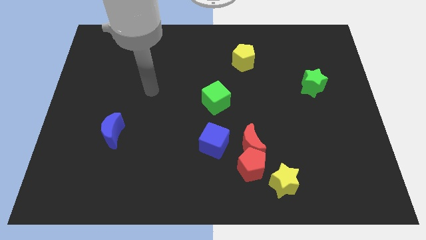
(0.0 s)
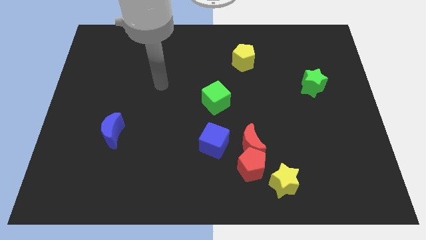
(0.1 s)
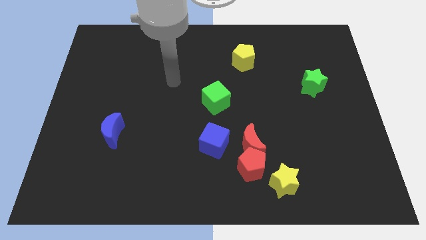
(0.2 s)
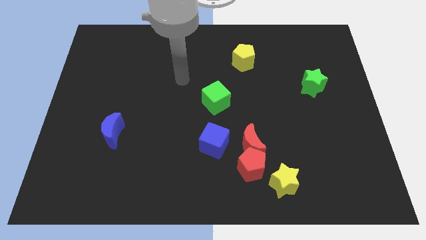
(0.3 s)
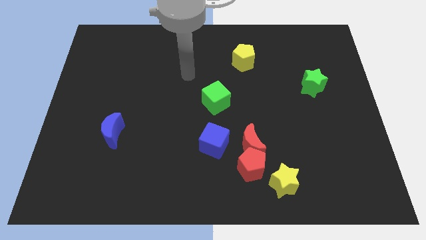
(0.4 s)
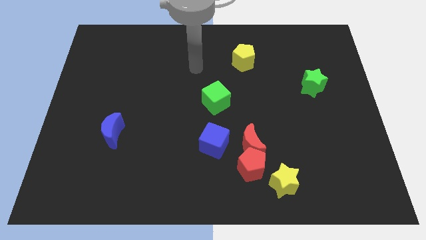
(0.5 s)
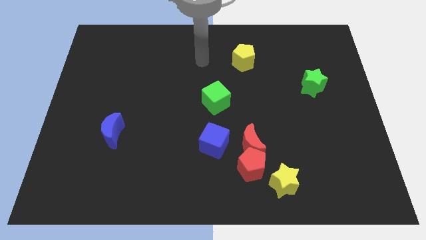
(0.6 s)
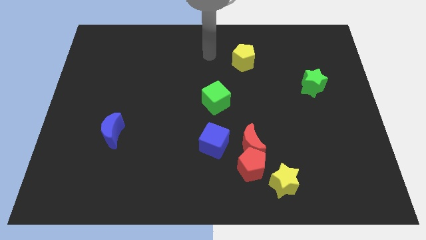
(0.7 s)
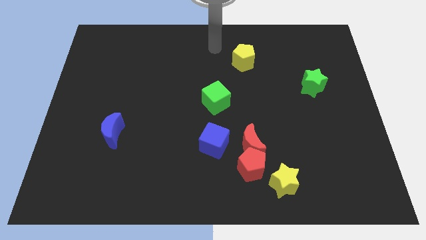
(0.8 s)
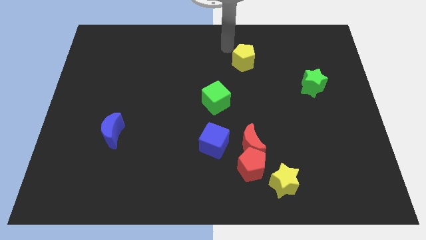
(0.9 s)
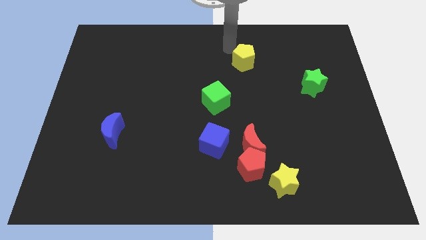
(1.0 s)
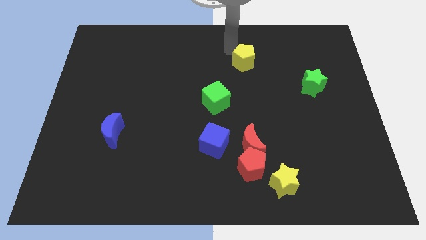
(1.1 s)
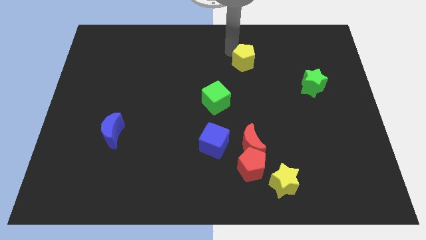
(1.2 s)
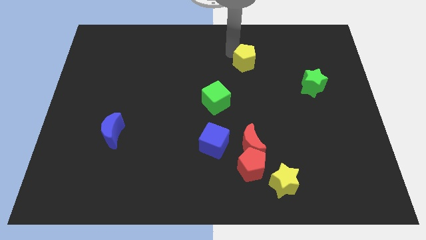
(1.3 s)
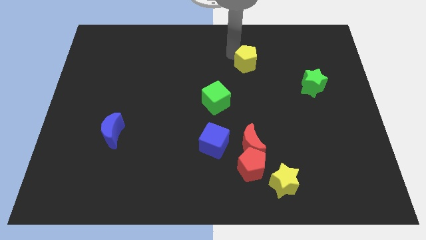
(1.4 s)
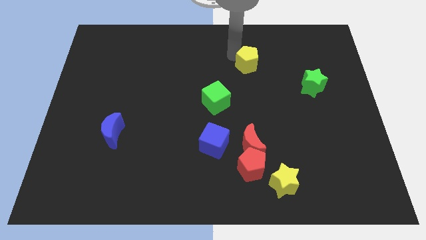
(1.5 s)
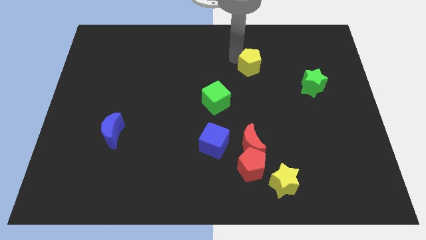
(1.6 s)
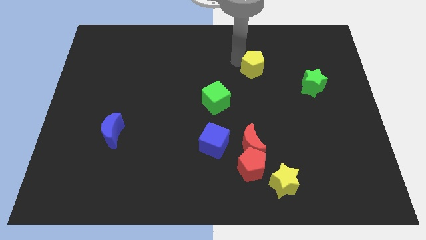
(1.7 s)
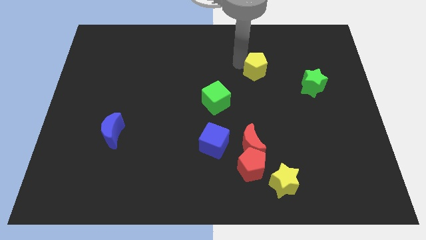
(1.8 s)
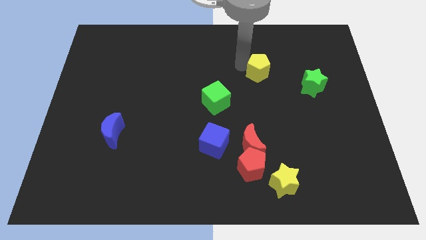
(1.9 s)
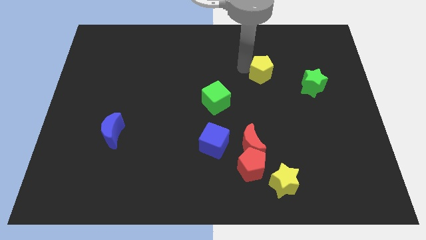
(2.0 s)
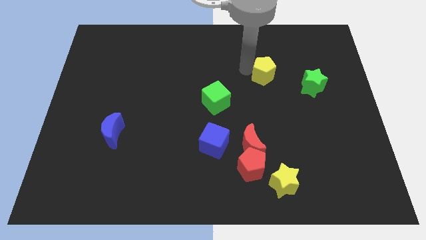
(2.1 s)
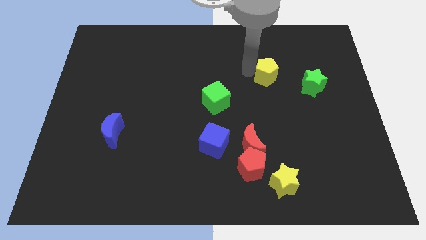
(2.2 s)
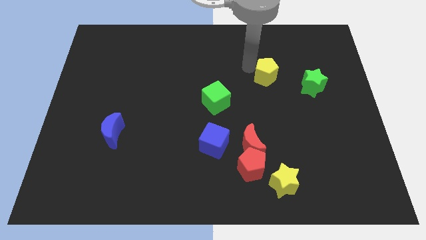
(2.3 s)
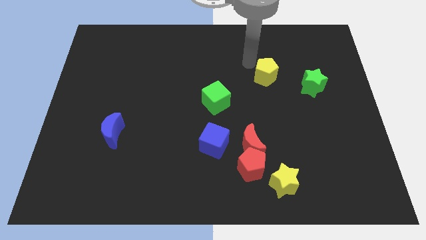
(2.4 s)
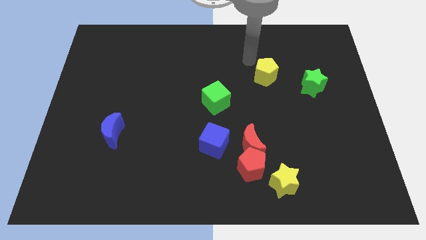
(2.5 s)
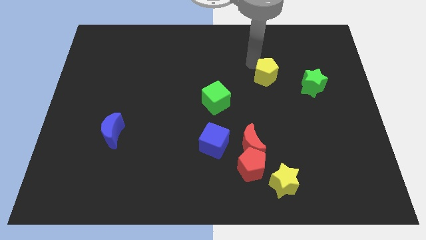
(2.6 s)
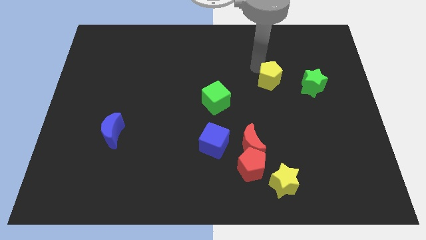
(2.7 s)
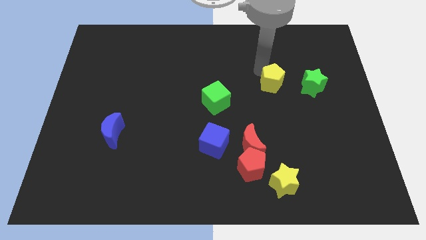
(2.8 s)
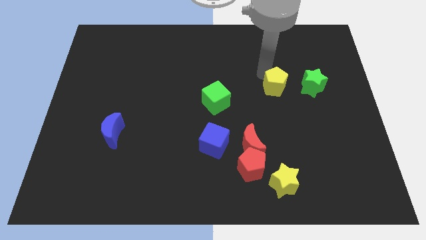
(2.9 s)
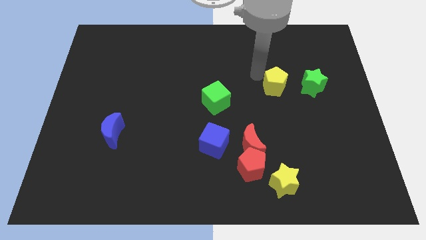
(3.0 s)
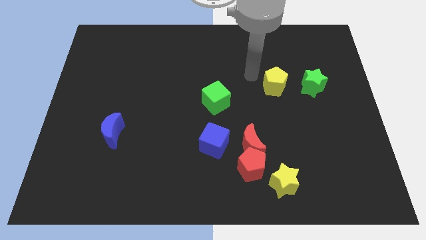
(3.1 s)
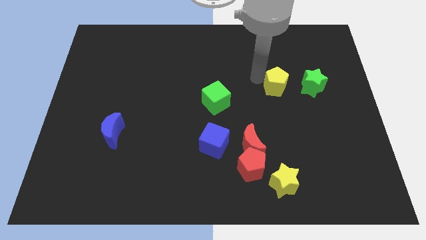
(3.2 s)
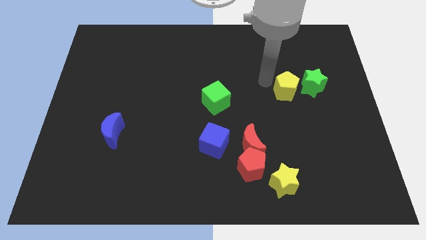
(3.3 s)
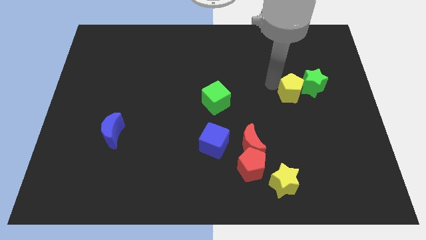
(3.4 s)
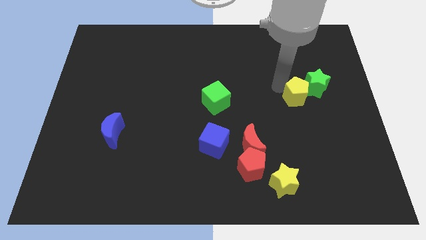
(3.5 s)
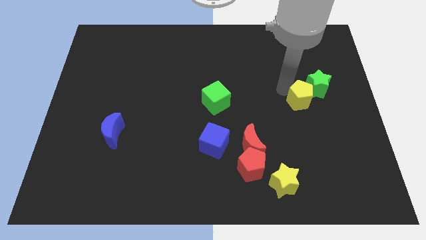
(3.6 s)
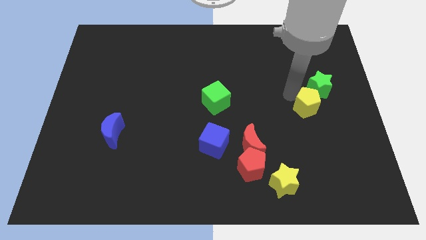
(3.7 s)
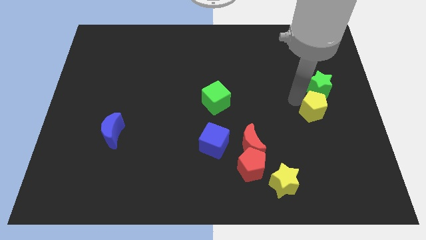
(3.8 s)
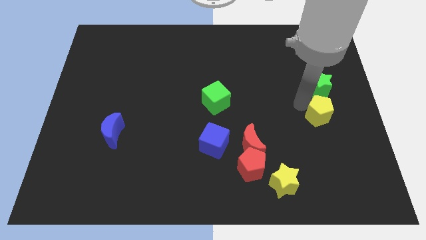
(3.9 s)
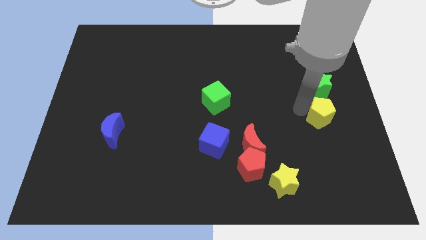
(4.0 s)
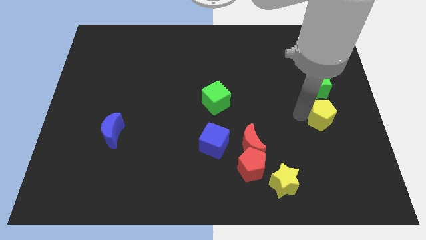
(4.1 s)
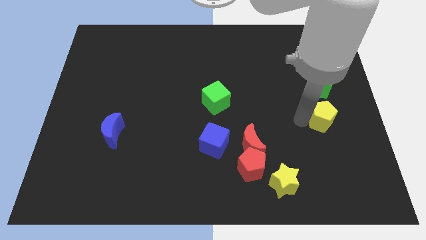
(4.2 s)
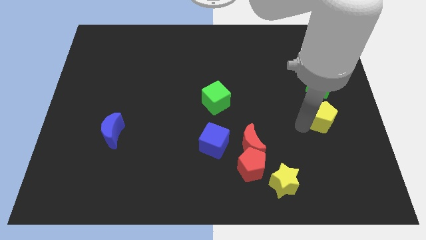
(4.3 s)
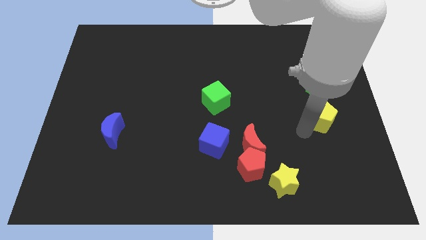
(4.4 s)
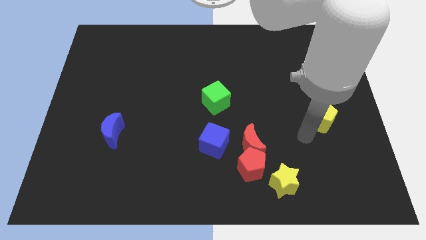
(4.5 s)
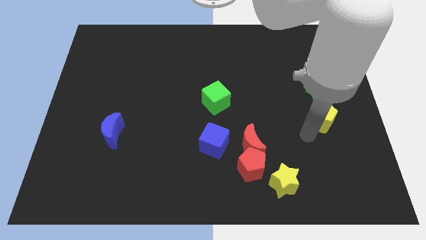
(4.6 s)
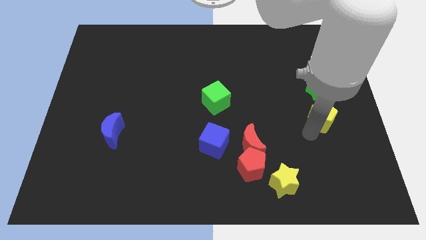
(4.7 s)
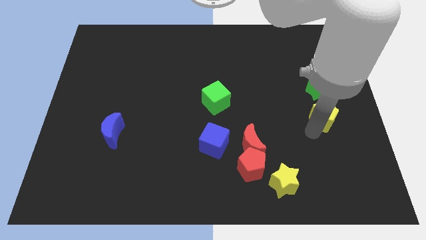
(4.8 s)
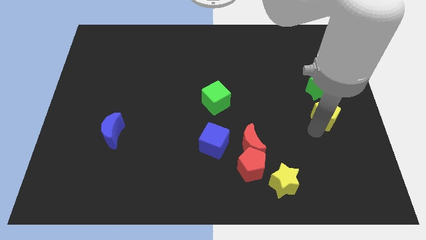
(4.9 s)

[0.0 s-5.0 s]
put the yellow pentagon to the center right

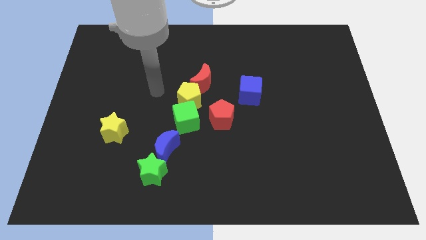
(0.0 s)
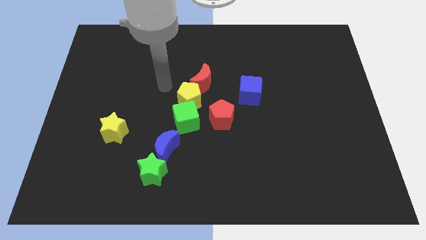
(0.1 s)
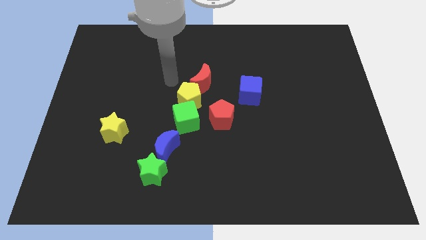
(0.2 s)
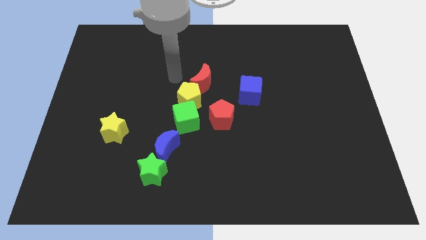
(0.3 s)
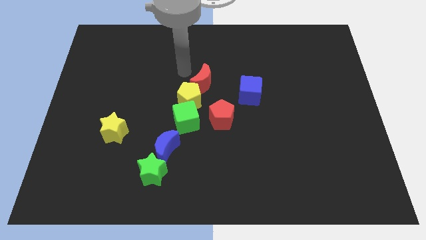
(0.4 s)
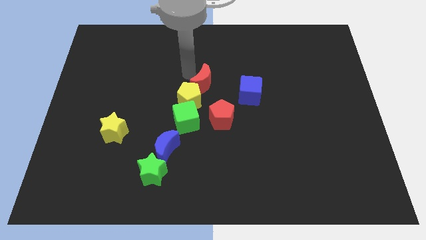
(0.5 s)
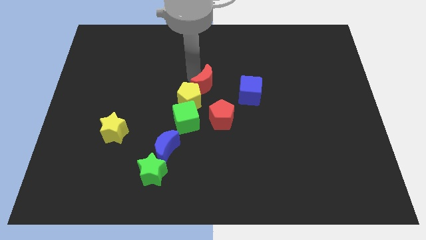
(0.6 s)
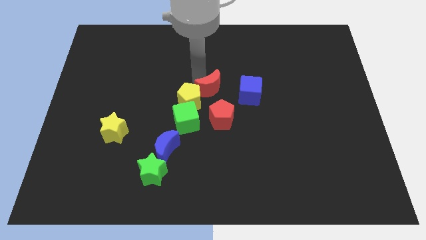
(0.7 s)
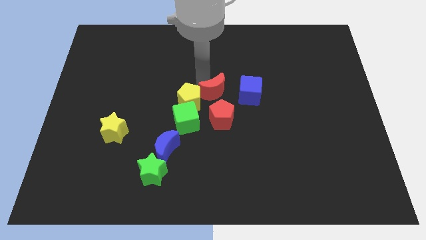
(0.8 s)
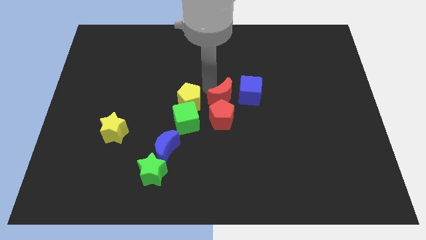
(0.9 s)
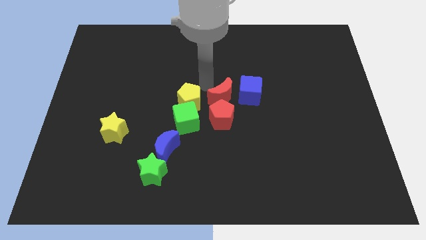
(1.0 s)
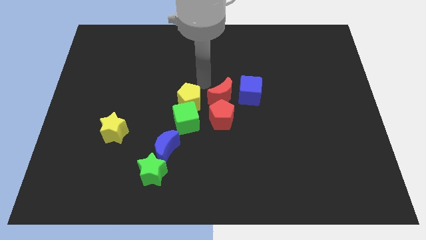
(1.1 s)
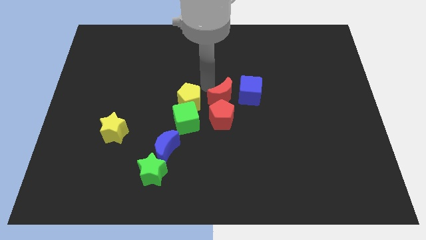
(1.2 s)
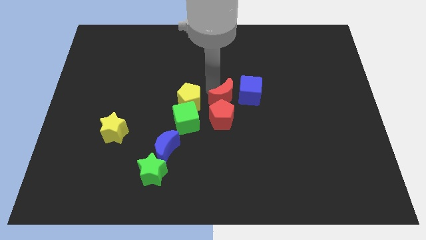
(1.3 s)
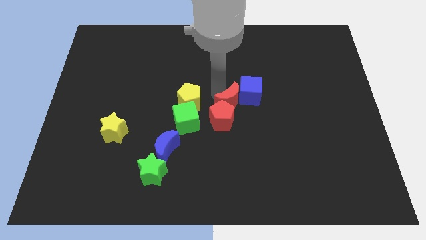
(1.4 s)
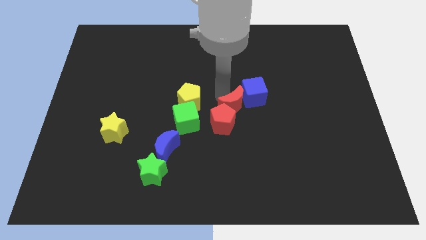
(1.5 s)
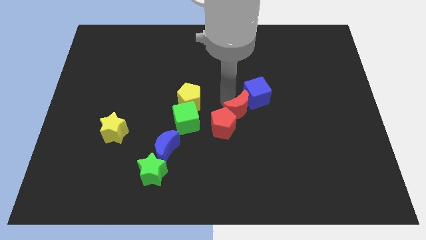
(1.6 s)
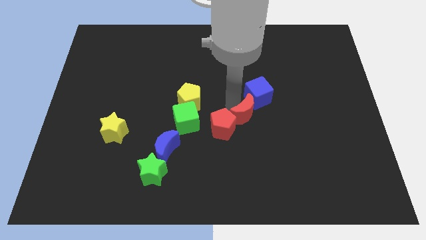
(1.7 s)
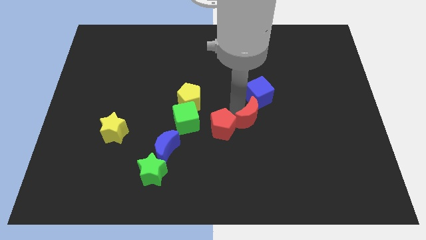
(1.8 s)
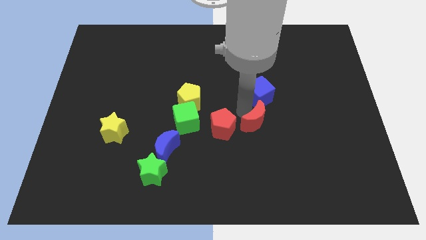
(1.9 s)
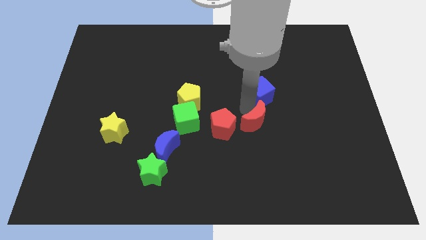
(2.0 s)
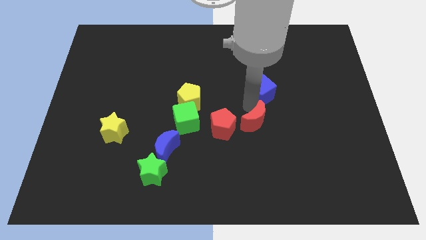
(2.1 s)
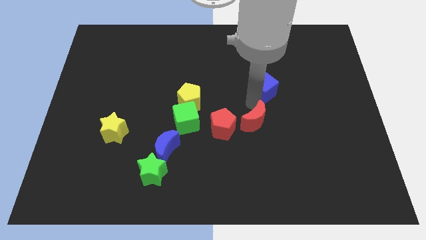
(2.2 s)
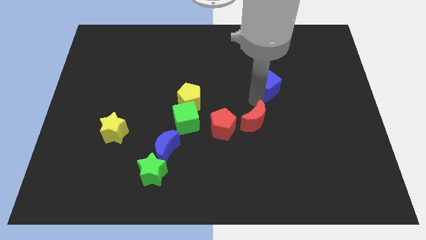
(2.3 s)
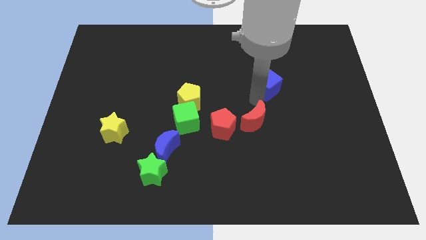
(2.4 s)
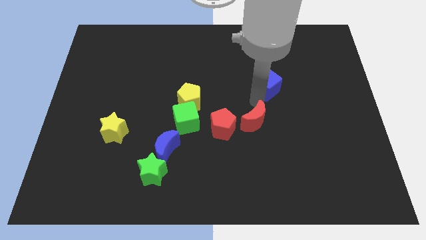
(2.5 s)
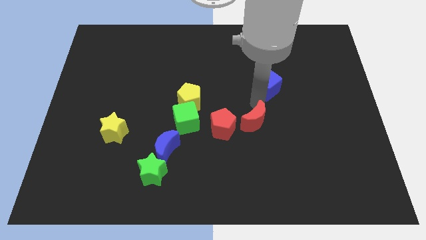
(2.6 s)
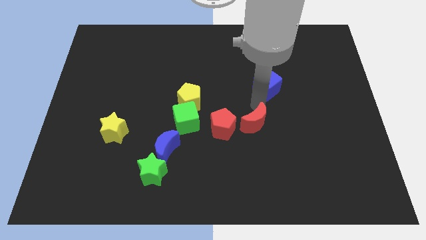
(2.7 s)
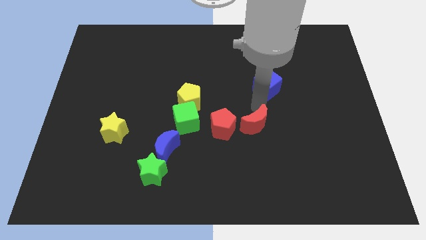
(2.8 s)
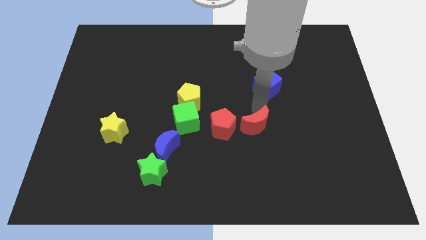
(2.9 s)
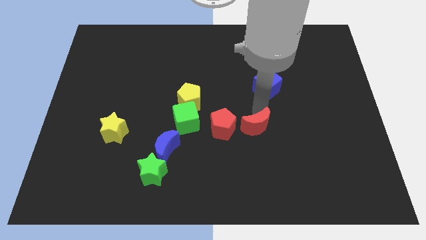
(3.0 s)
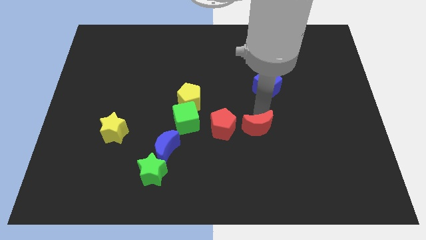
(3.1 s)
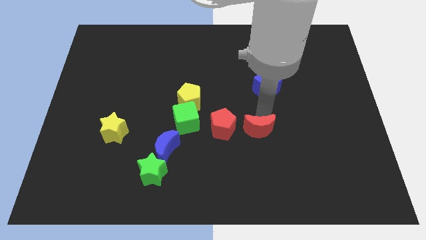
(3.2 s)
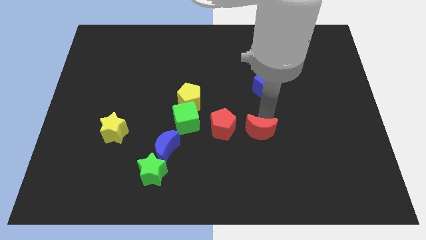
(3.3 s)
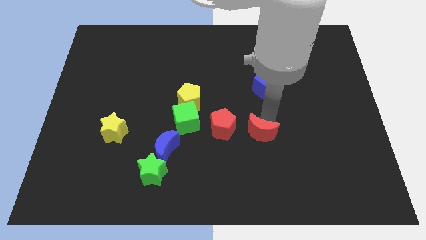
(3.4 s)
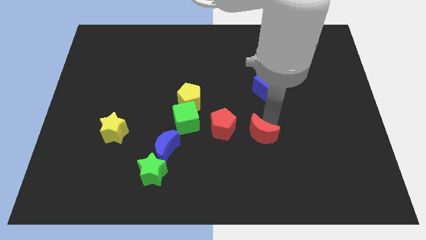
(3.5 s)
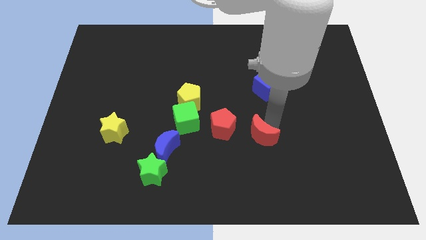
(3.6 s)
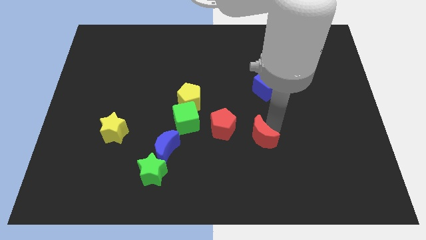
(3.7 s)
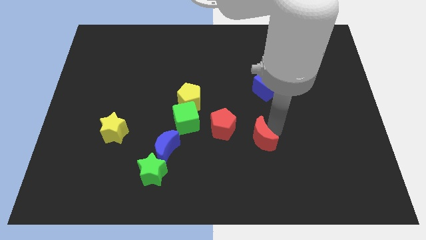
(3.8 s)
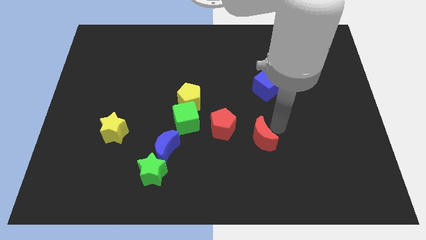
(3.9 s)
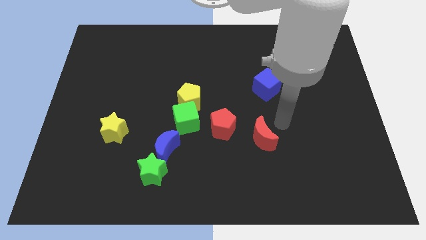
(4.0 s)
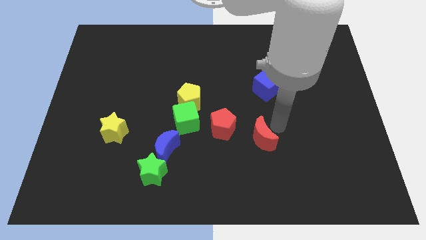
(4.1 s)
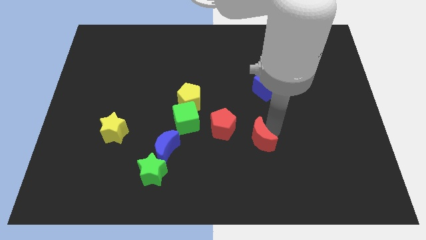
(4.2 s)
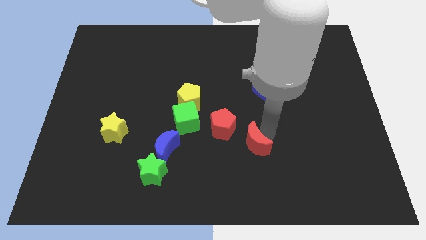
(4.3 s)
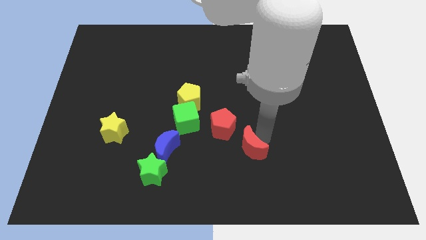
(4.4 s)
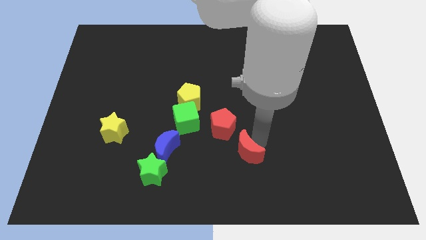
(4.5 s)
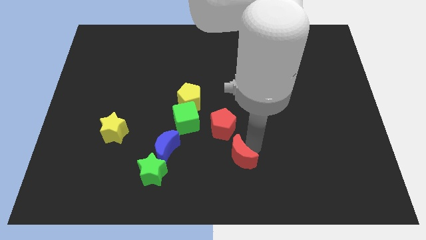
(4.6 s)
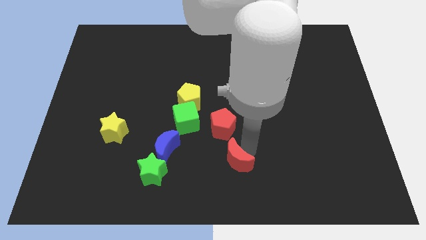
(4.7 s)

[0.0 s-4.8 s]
slide the red moon to the bottom
